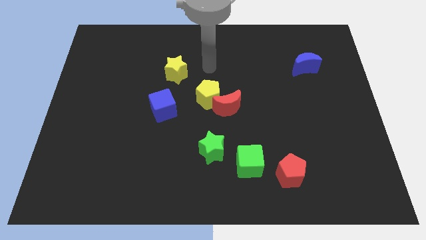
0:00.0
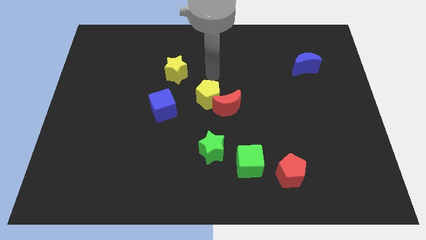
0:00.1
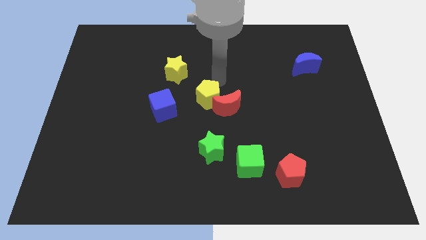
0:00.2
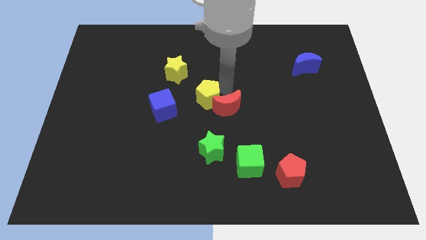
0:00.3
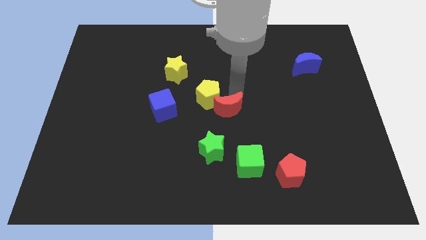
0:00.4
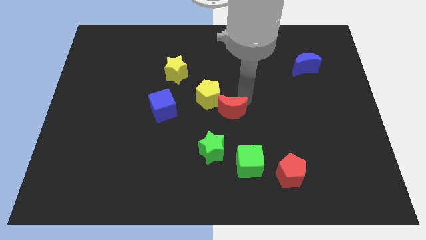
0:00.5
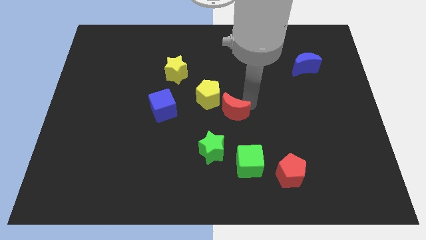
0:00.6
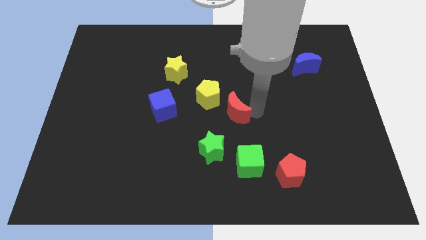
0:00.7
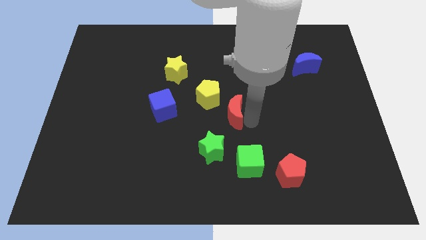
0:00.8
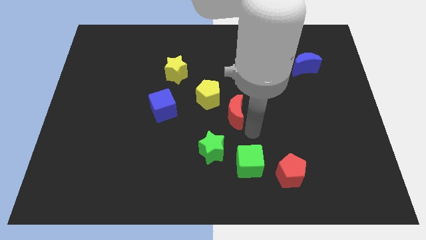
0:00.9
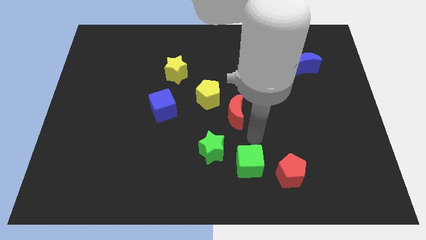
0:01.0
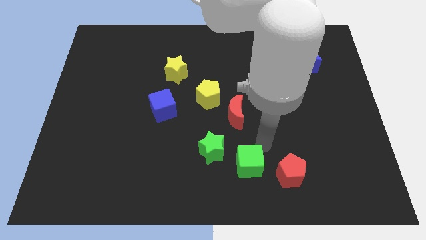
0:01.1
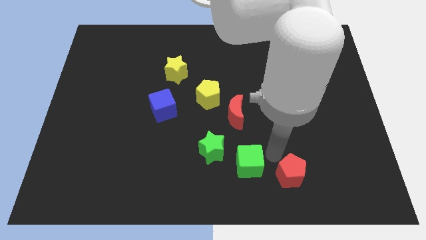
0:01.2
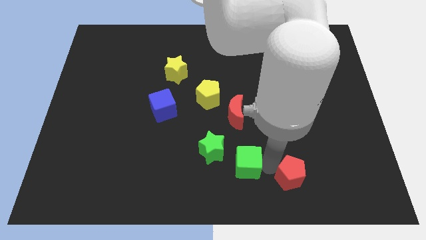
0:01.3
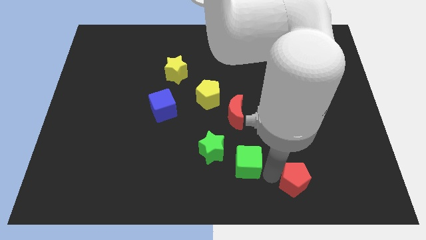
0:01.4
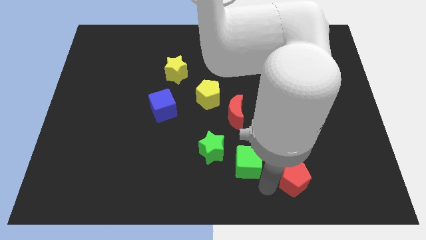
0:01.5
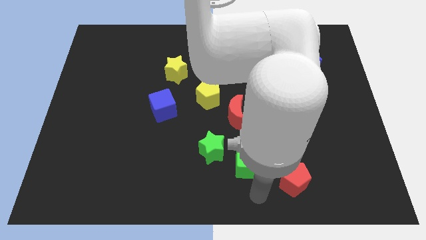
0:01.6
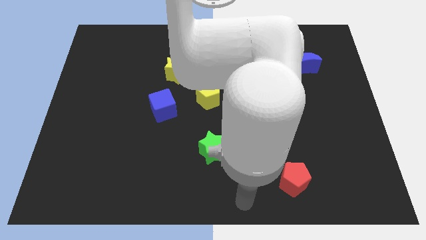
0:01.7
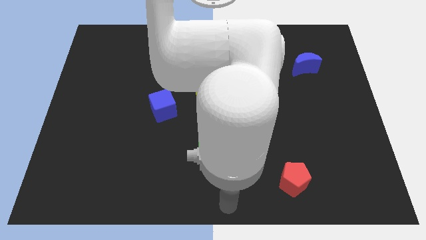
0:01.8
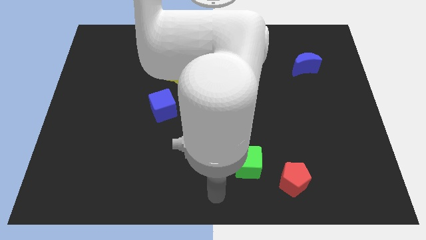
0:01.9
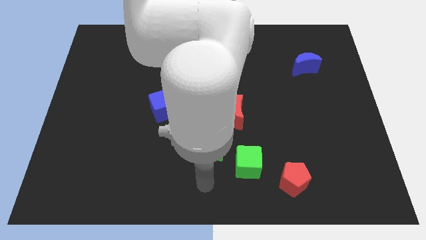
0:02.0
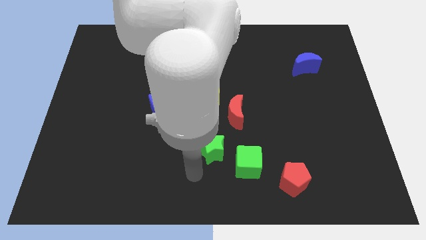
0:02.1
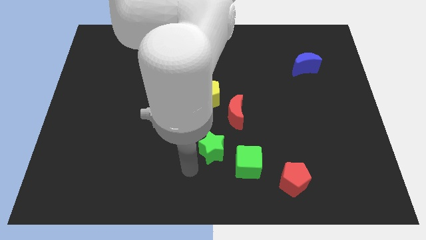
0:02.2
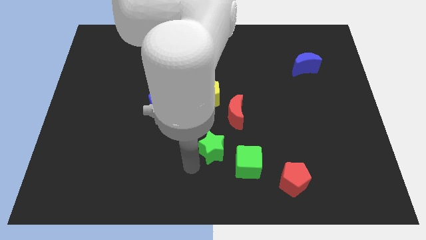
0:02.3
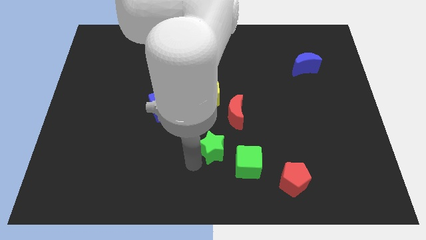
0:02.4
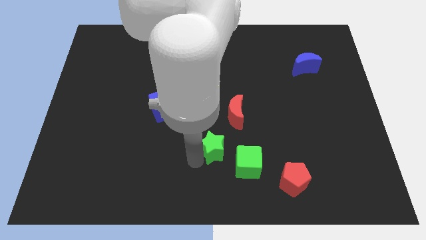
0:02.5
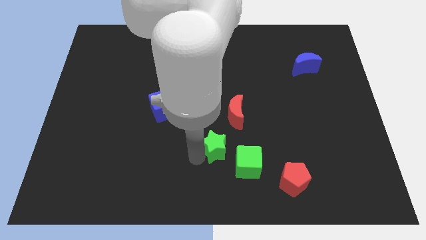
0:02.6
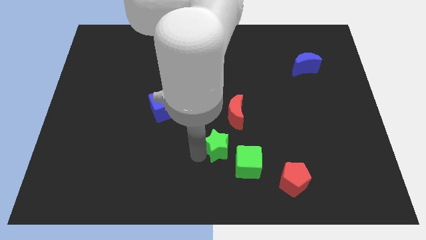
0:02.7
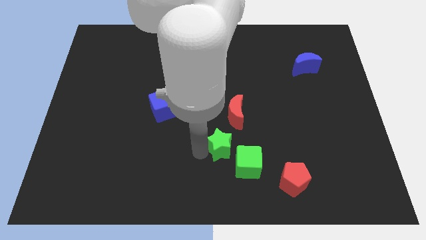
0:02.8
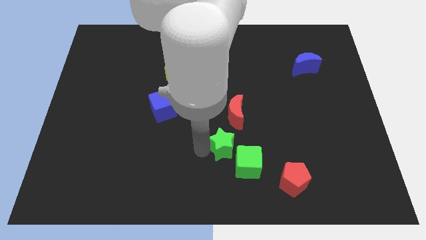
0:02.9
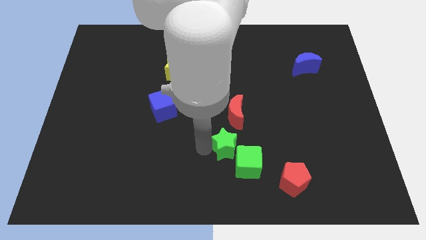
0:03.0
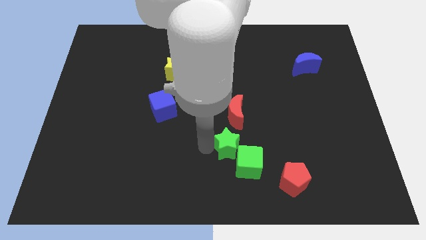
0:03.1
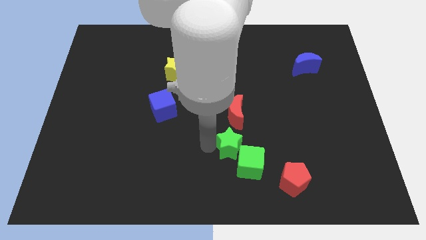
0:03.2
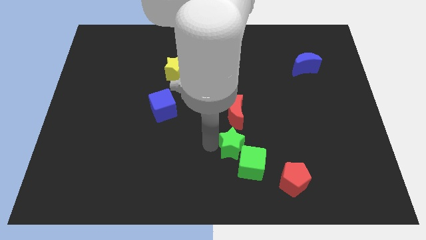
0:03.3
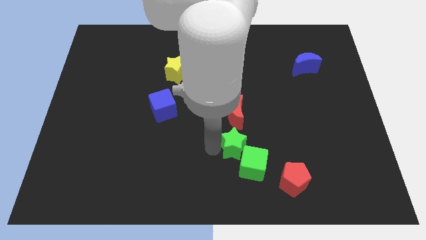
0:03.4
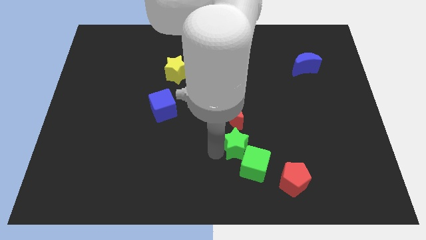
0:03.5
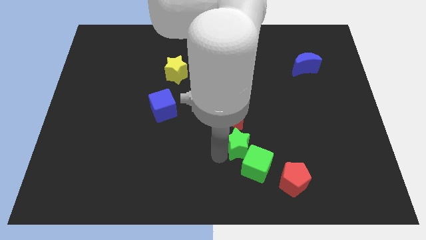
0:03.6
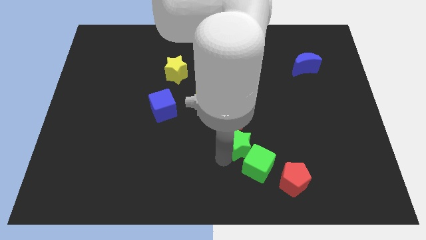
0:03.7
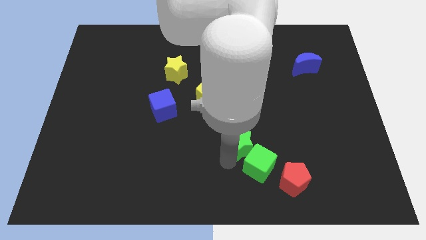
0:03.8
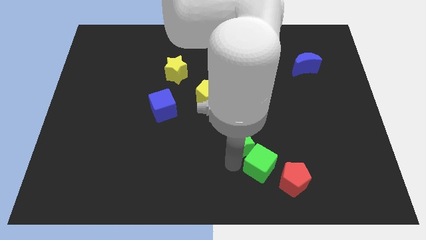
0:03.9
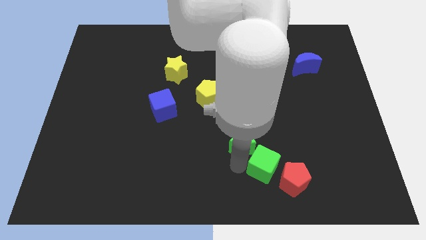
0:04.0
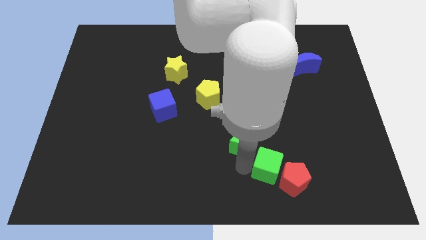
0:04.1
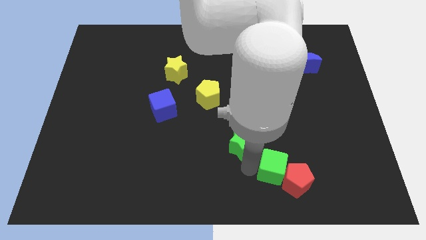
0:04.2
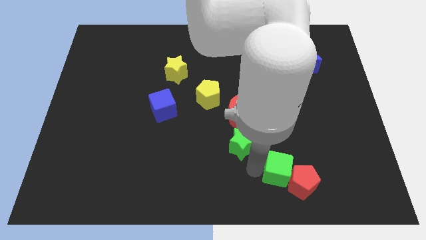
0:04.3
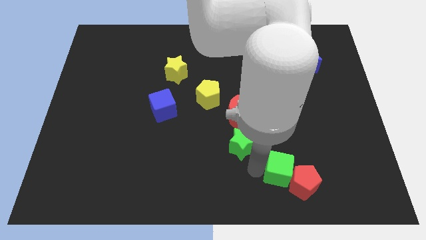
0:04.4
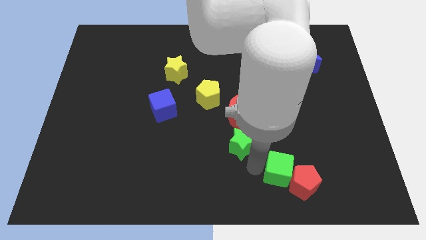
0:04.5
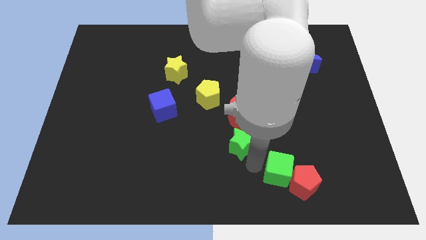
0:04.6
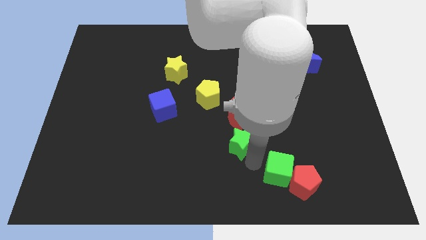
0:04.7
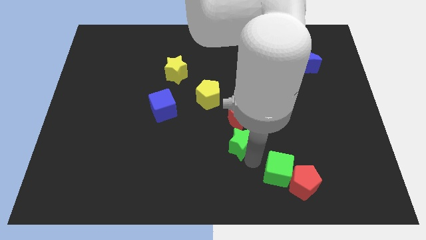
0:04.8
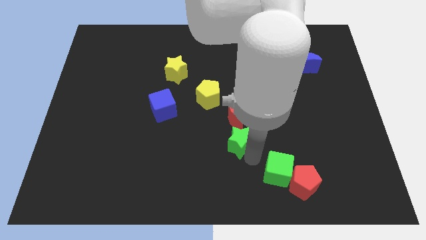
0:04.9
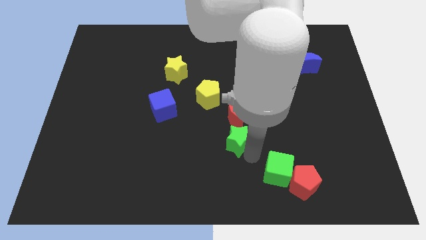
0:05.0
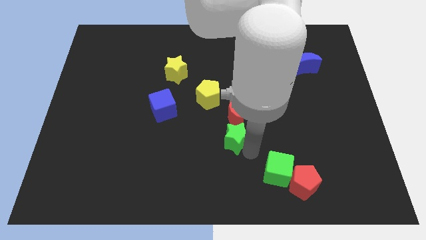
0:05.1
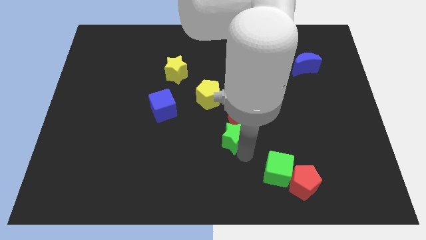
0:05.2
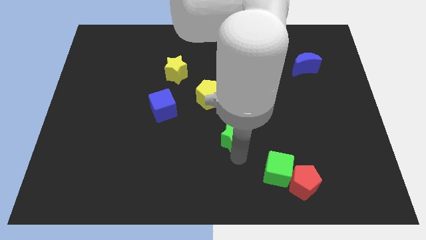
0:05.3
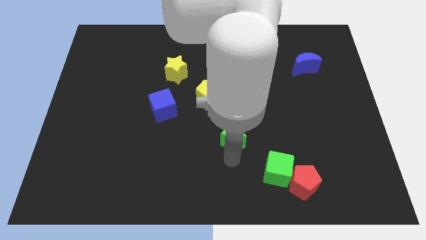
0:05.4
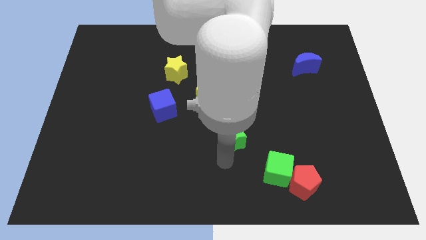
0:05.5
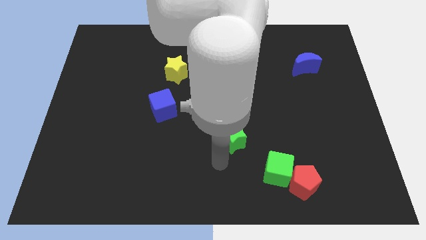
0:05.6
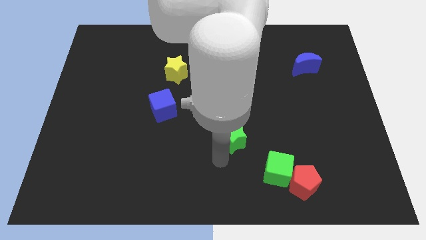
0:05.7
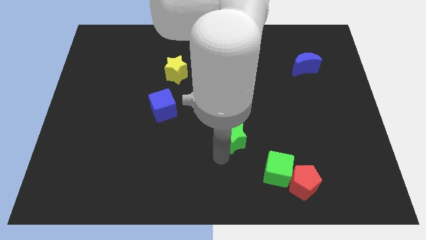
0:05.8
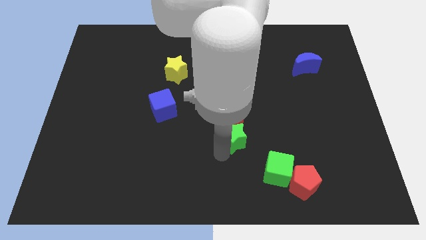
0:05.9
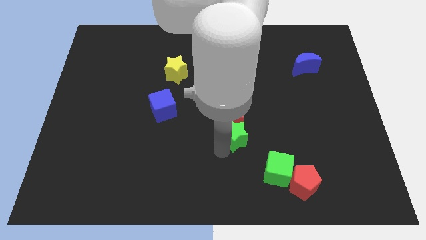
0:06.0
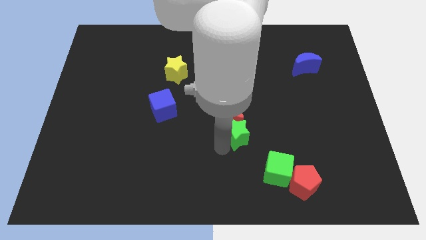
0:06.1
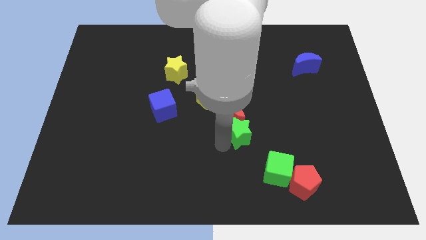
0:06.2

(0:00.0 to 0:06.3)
slightly slide the green star diagonally upwards and to the right

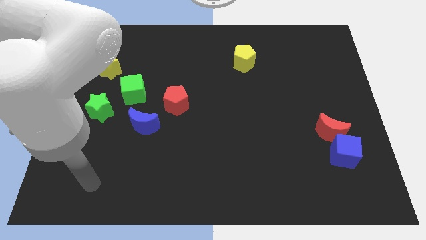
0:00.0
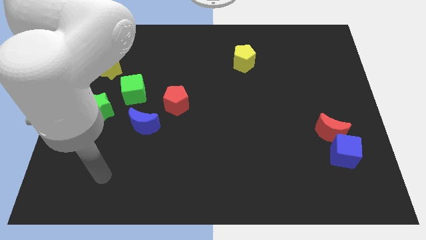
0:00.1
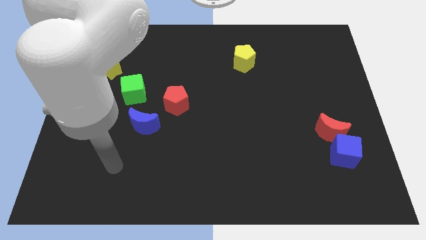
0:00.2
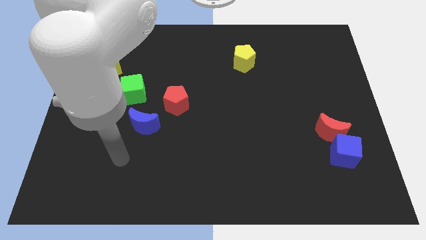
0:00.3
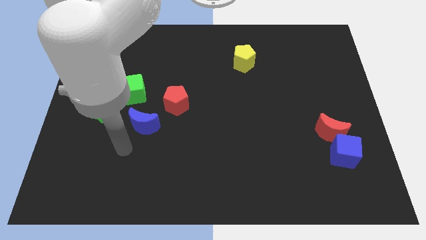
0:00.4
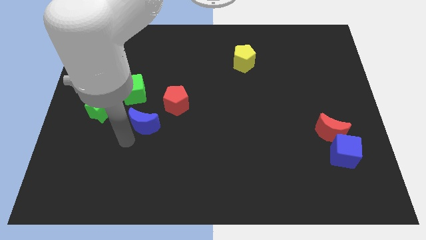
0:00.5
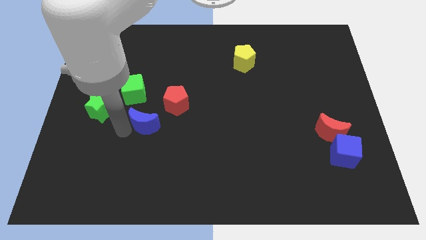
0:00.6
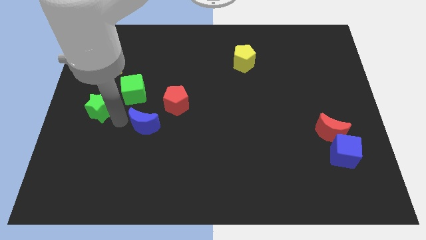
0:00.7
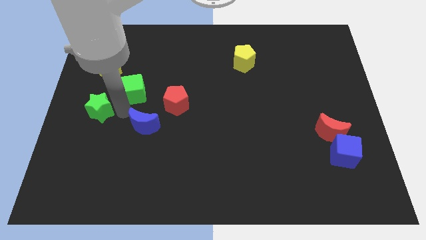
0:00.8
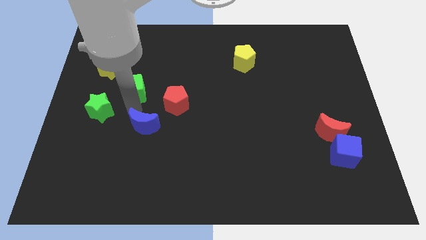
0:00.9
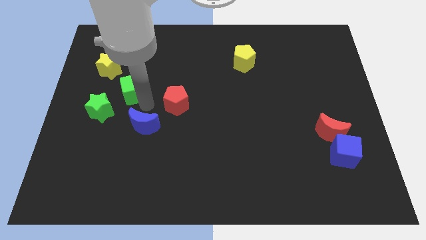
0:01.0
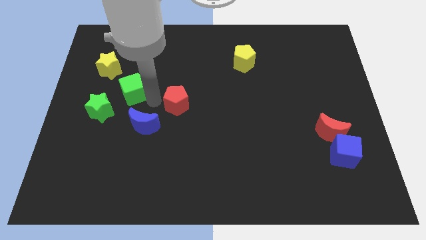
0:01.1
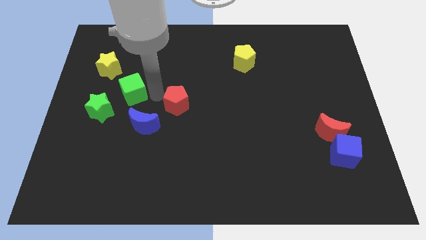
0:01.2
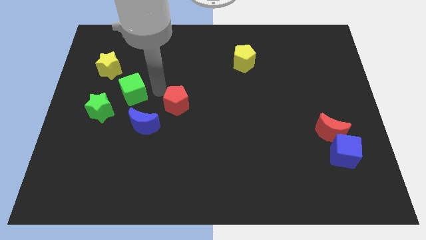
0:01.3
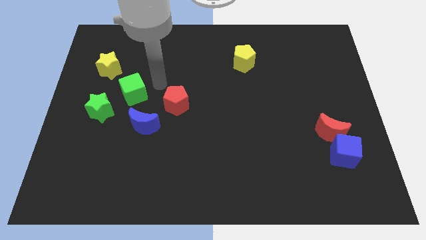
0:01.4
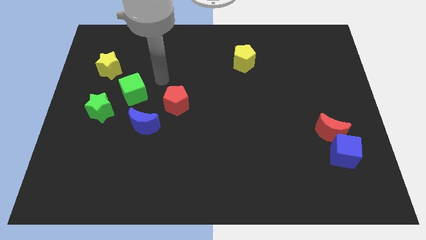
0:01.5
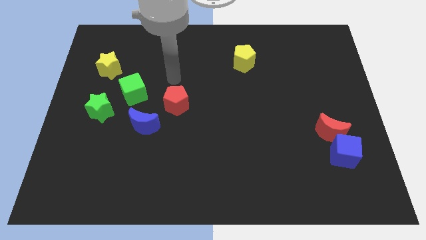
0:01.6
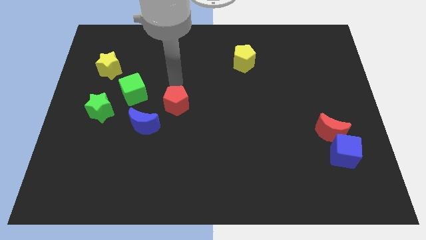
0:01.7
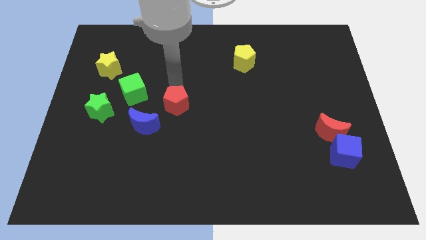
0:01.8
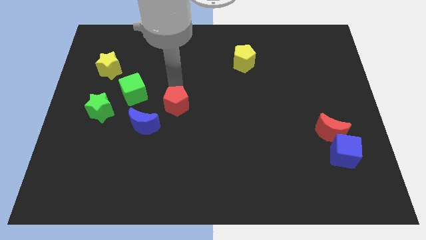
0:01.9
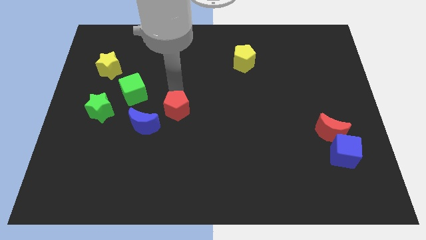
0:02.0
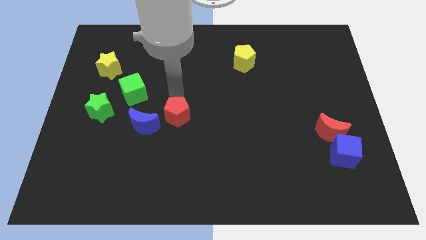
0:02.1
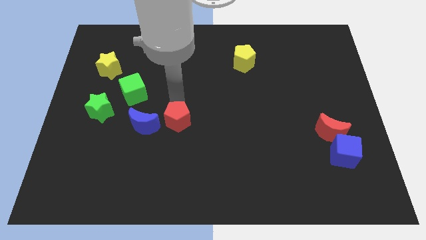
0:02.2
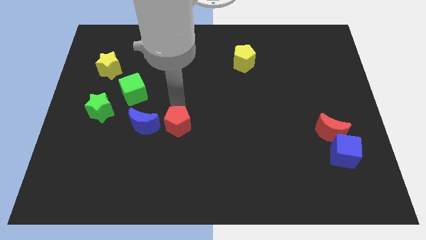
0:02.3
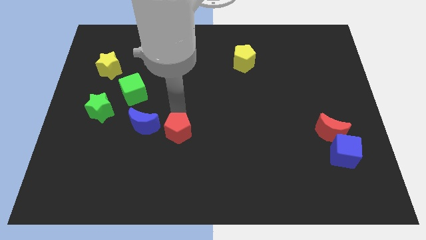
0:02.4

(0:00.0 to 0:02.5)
push the red pentagon a little bit downwards
